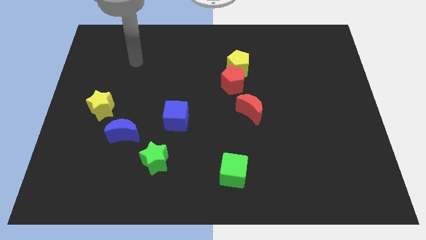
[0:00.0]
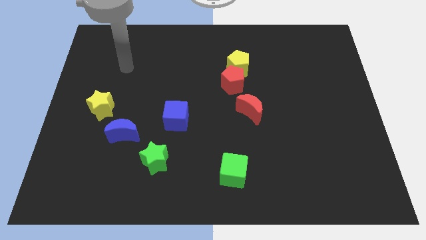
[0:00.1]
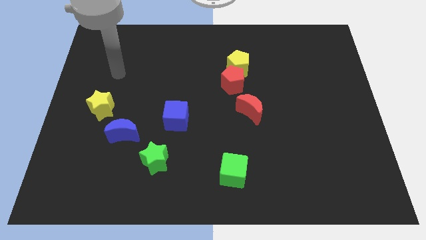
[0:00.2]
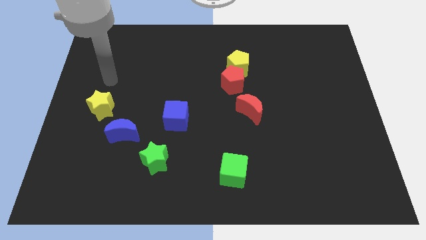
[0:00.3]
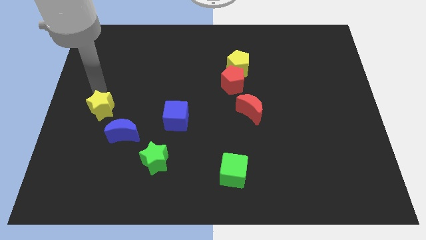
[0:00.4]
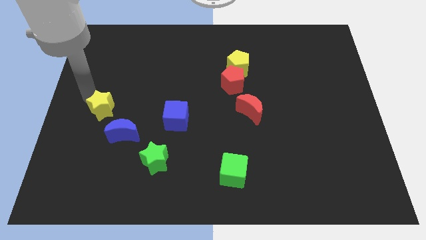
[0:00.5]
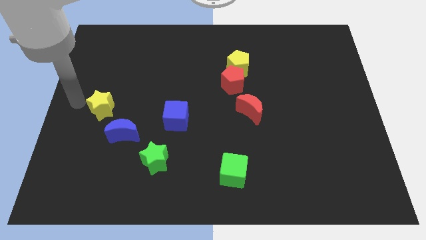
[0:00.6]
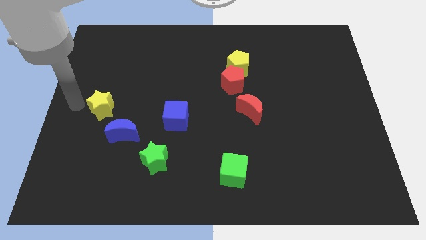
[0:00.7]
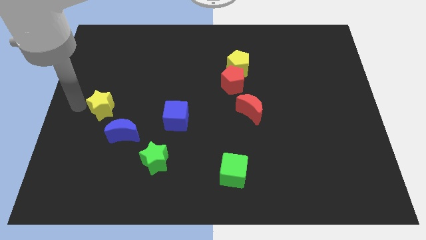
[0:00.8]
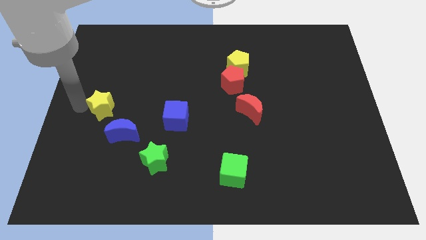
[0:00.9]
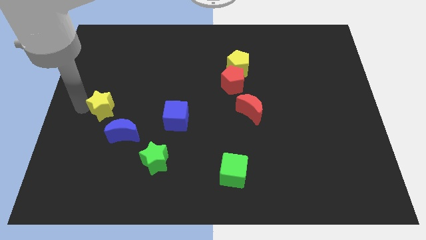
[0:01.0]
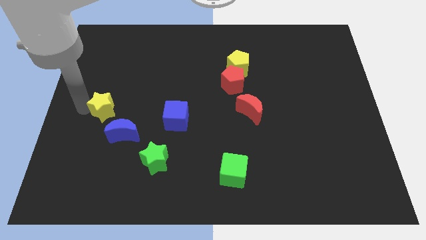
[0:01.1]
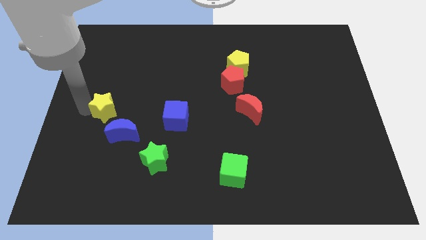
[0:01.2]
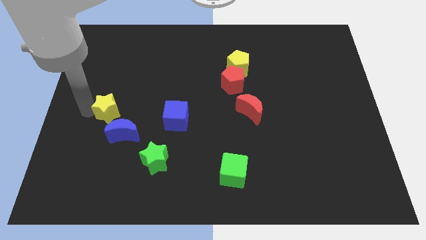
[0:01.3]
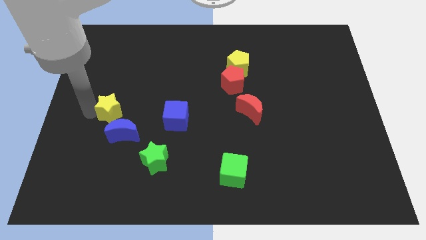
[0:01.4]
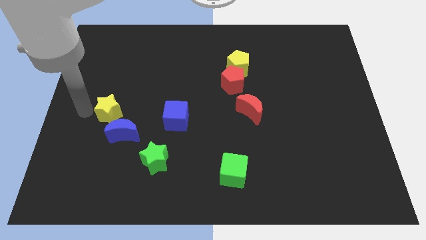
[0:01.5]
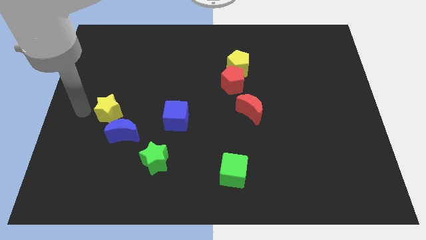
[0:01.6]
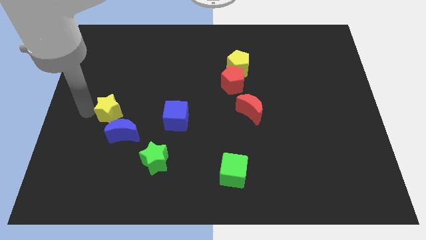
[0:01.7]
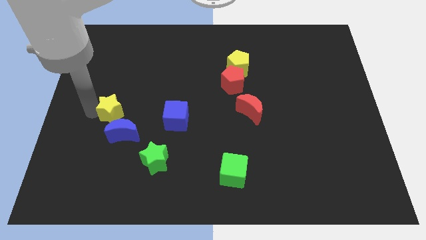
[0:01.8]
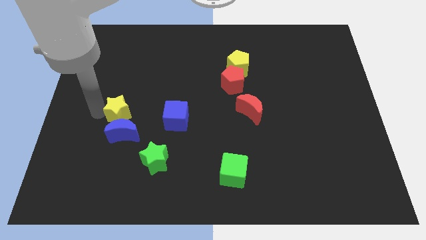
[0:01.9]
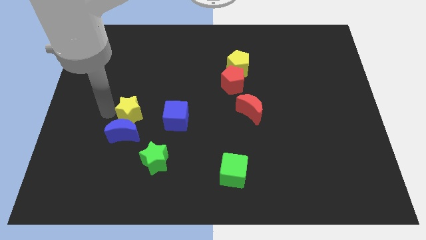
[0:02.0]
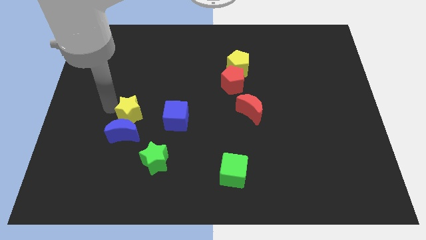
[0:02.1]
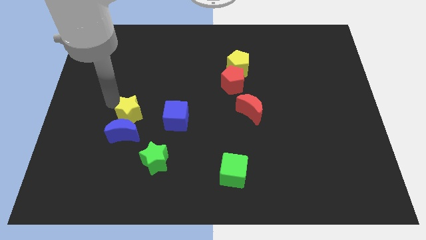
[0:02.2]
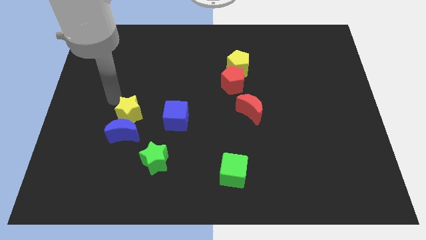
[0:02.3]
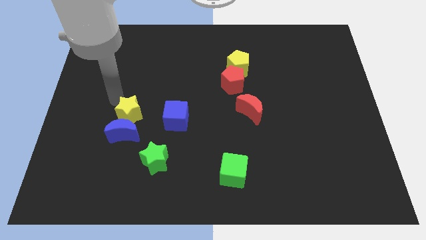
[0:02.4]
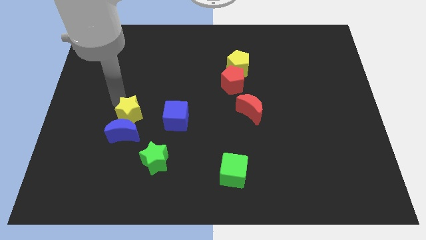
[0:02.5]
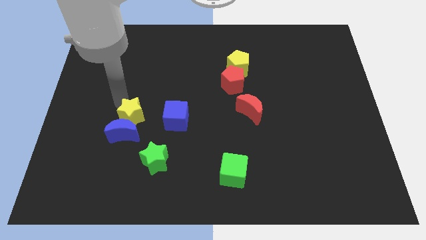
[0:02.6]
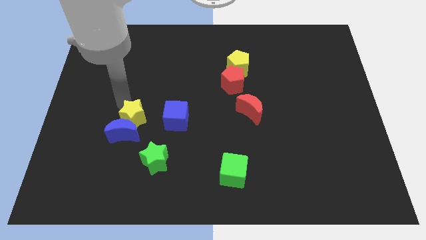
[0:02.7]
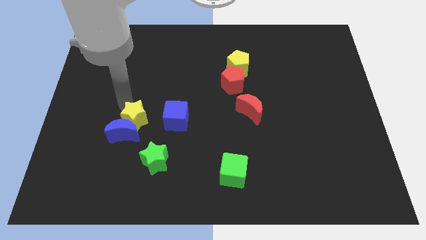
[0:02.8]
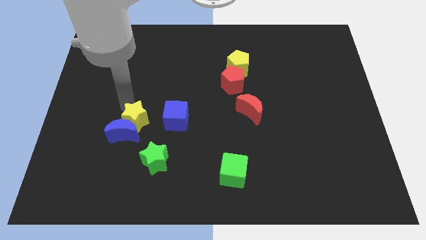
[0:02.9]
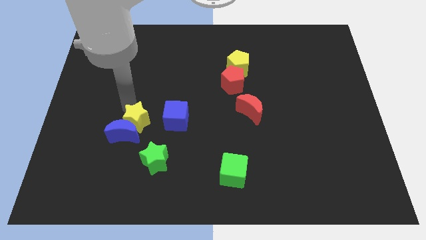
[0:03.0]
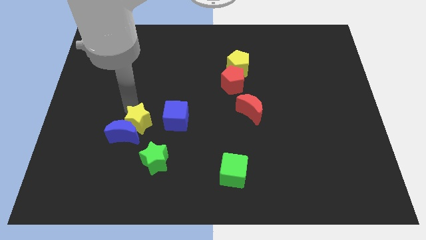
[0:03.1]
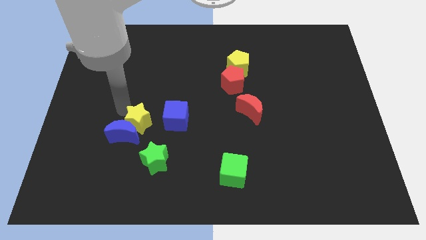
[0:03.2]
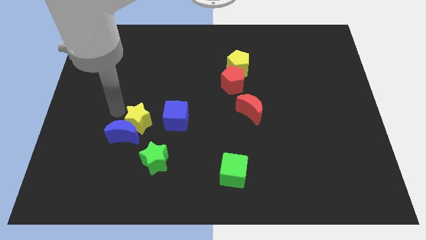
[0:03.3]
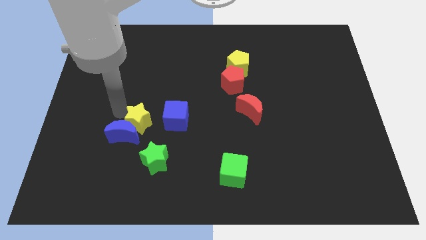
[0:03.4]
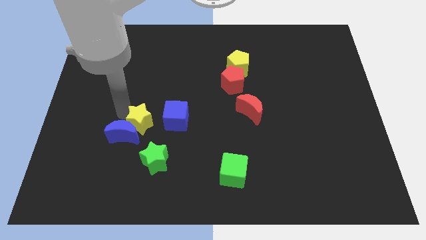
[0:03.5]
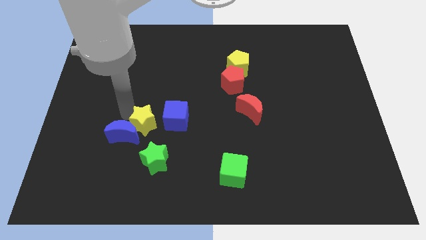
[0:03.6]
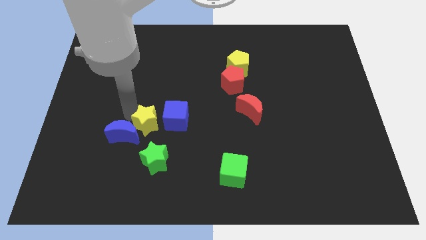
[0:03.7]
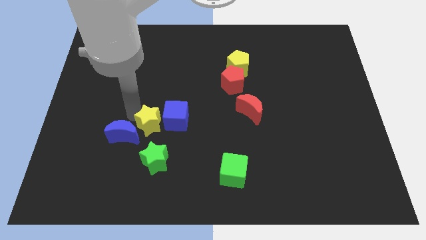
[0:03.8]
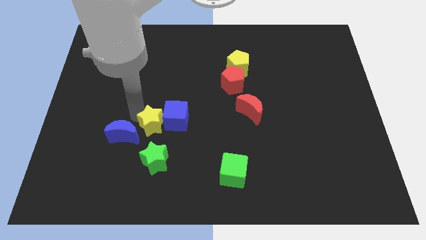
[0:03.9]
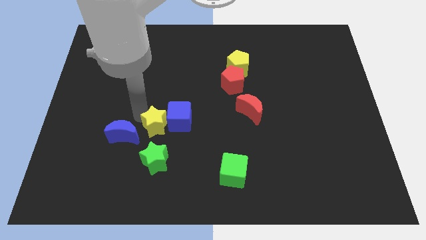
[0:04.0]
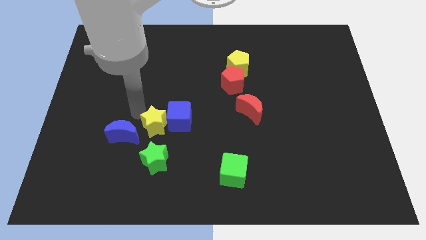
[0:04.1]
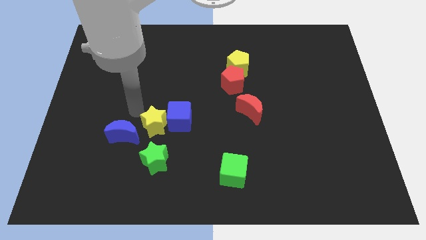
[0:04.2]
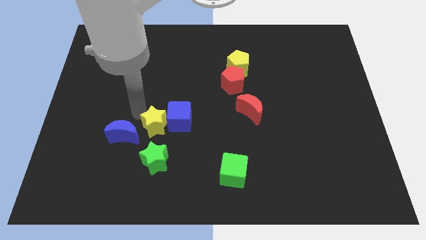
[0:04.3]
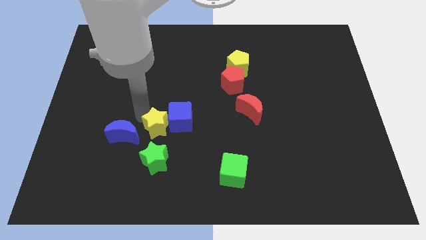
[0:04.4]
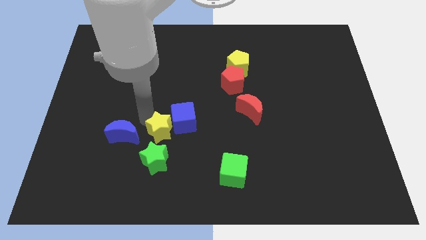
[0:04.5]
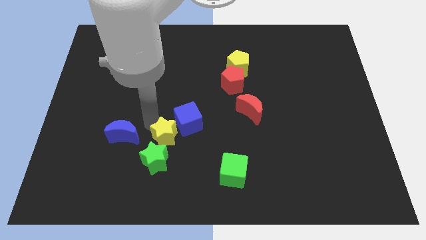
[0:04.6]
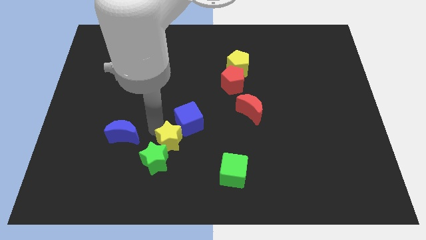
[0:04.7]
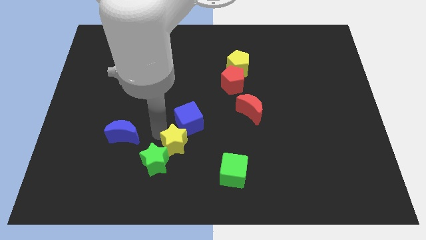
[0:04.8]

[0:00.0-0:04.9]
push the yellow star to the right of the green star

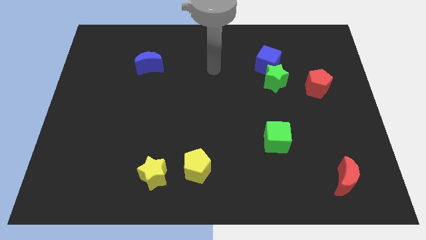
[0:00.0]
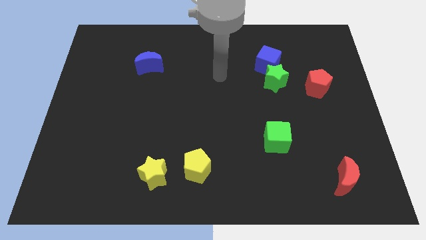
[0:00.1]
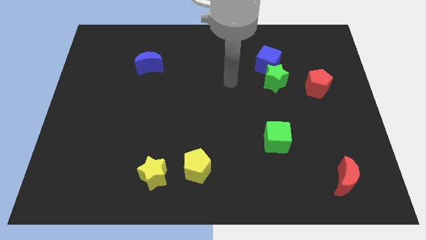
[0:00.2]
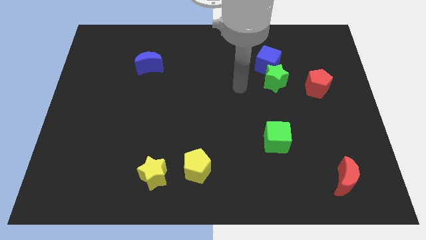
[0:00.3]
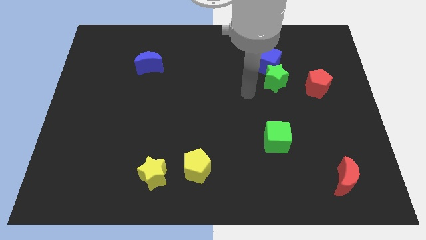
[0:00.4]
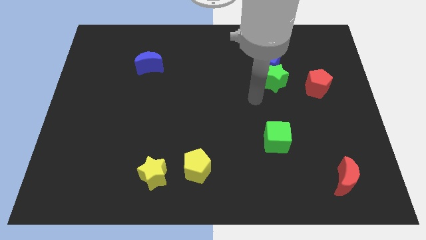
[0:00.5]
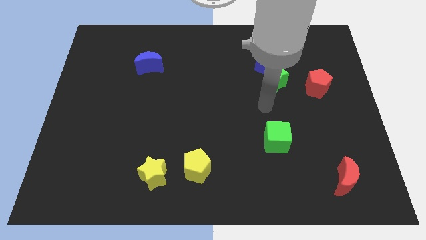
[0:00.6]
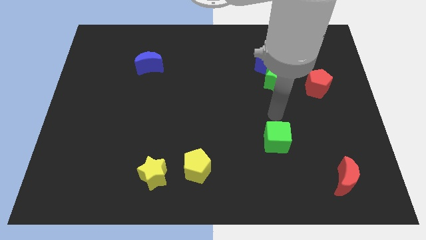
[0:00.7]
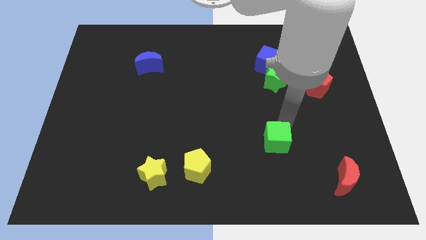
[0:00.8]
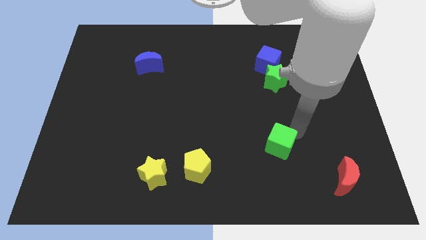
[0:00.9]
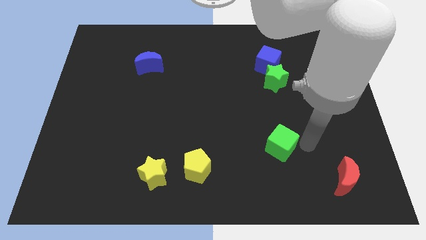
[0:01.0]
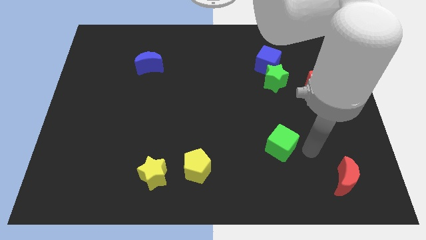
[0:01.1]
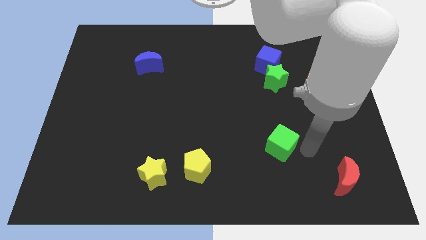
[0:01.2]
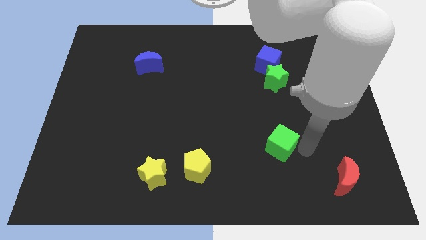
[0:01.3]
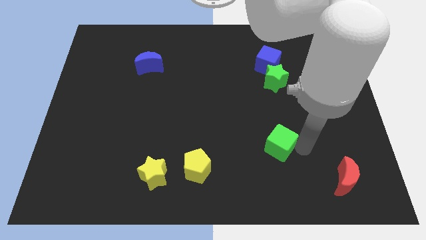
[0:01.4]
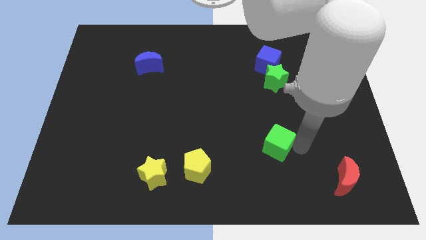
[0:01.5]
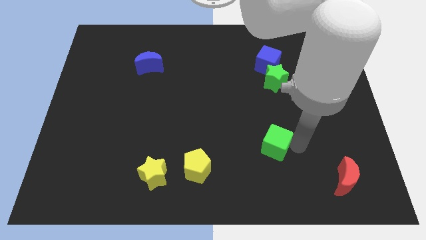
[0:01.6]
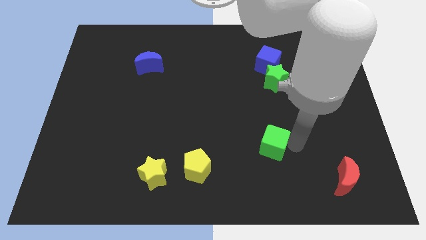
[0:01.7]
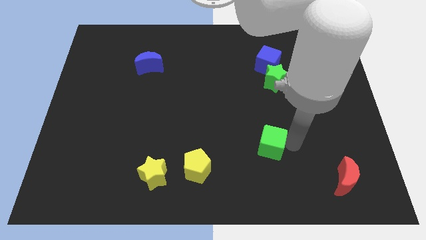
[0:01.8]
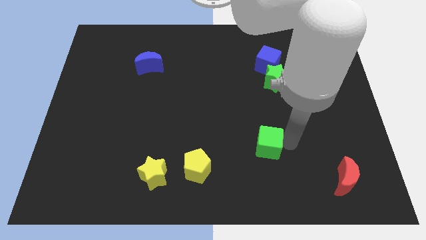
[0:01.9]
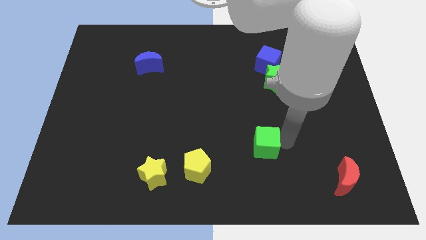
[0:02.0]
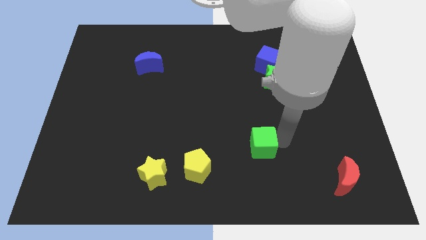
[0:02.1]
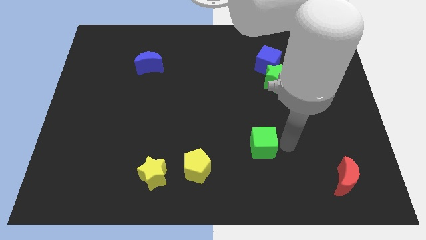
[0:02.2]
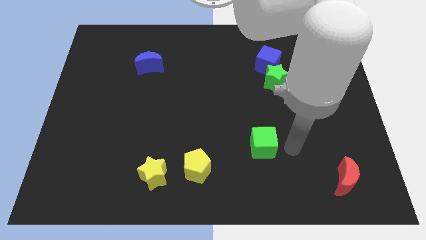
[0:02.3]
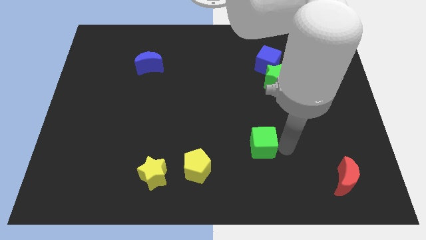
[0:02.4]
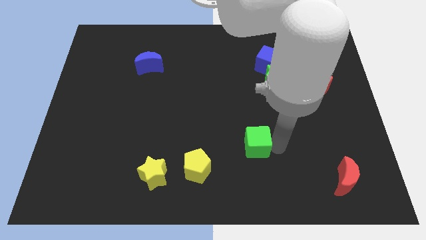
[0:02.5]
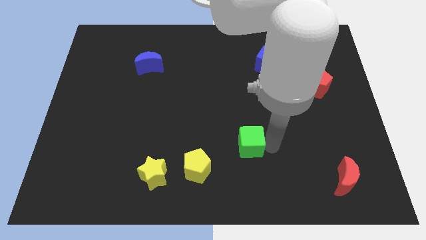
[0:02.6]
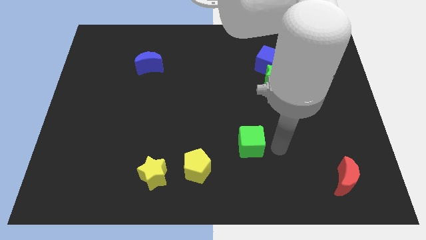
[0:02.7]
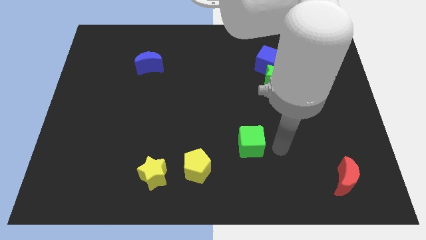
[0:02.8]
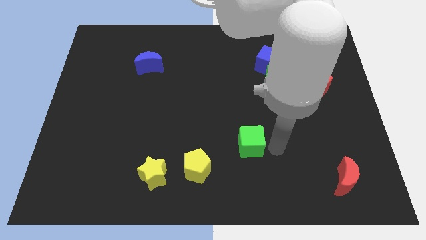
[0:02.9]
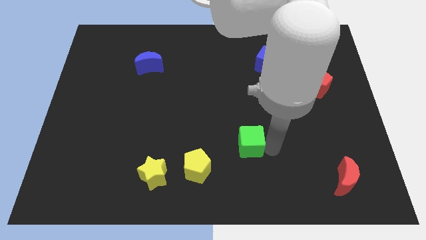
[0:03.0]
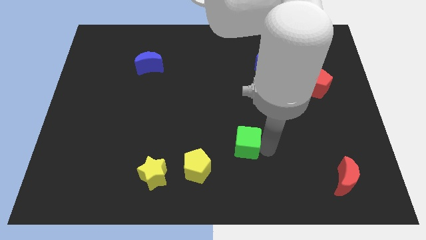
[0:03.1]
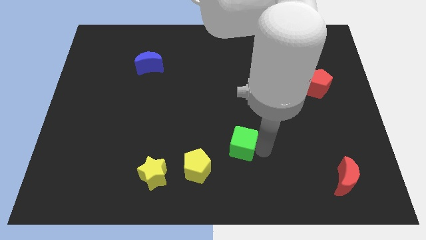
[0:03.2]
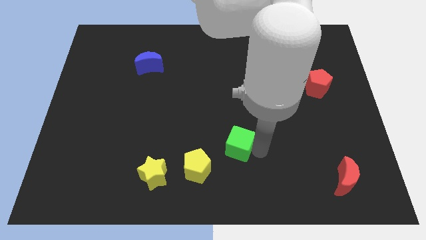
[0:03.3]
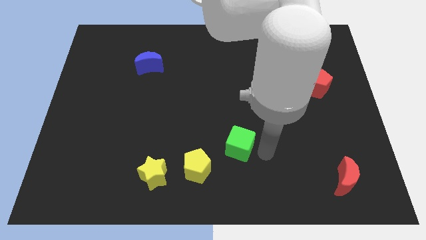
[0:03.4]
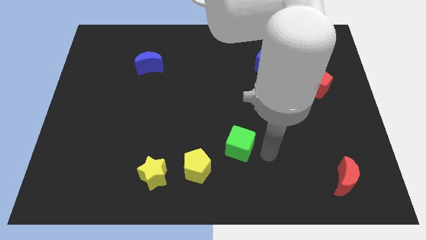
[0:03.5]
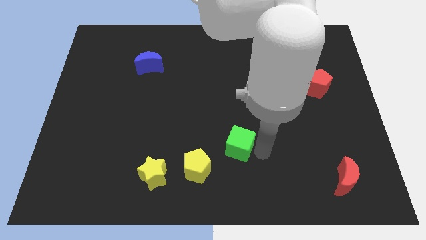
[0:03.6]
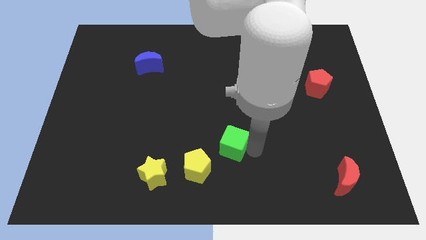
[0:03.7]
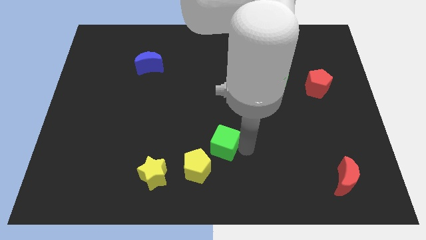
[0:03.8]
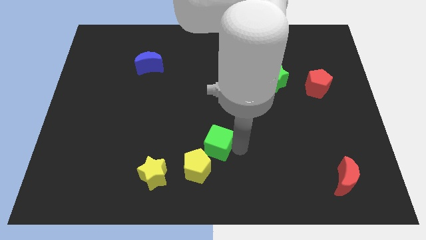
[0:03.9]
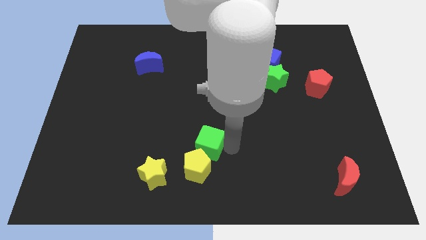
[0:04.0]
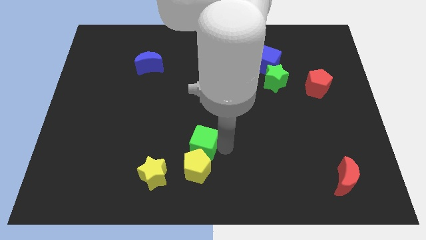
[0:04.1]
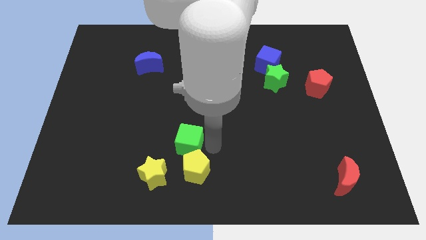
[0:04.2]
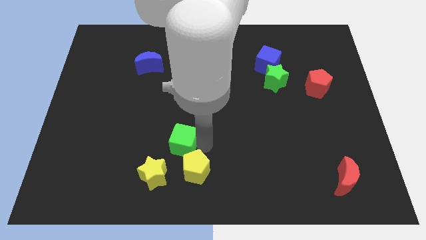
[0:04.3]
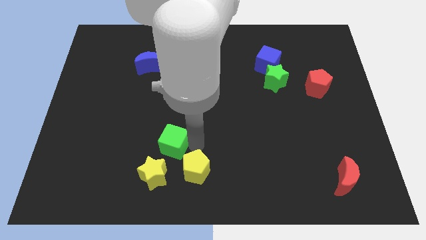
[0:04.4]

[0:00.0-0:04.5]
put the green cube above the yellow star
